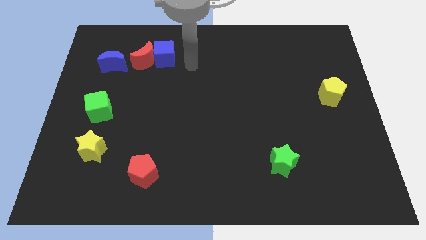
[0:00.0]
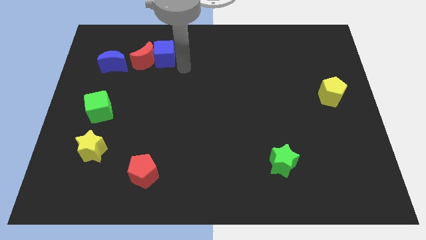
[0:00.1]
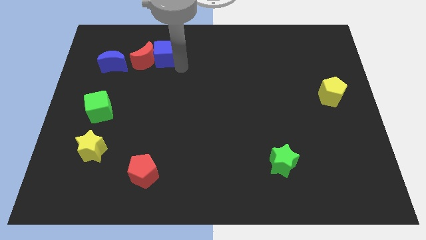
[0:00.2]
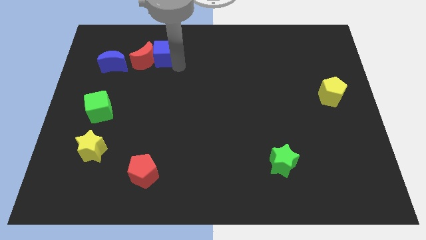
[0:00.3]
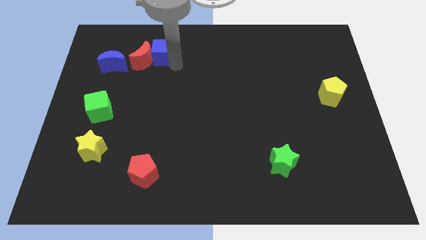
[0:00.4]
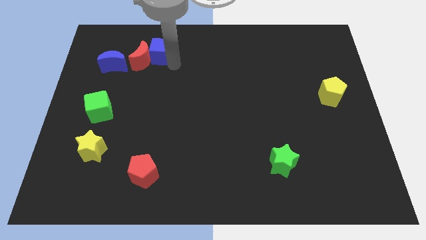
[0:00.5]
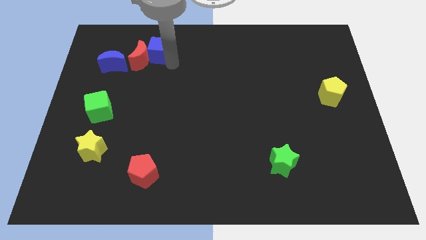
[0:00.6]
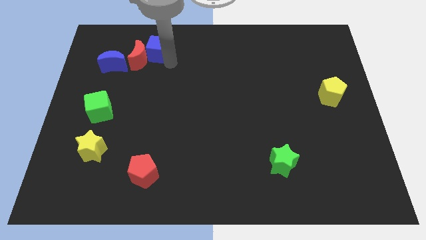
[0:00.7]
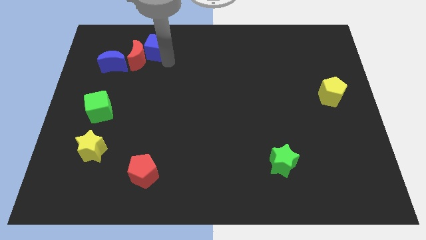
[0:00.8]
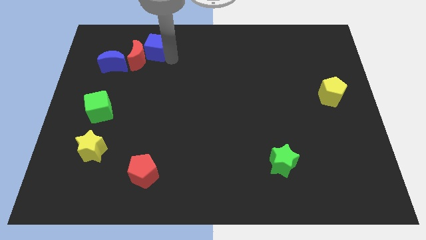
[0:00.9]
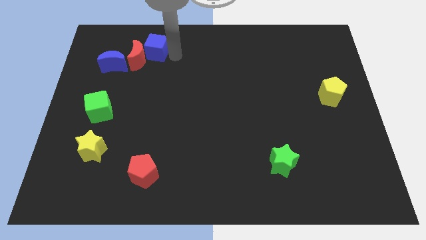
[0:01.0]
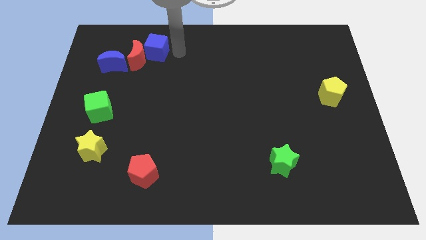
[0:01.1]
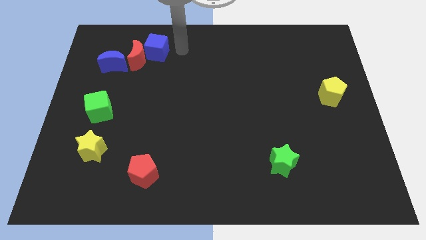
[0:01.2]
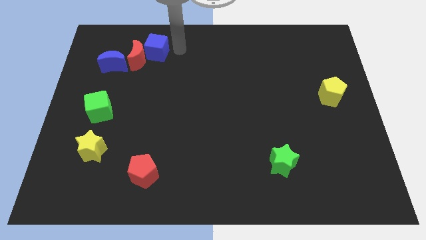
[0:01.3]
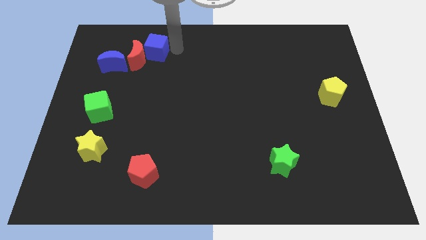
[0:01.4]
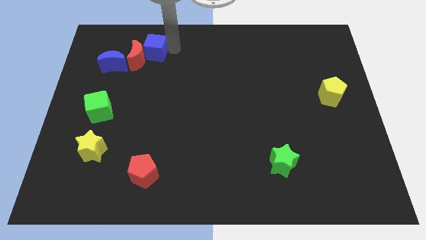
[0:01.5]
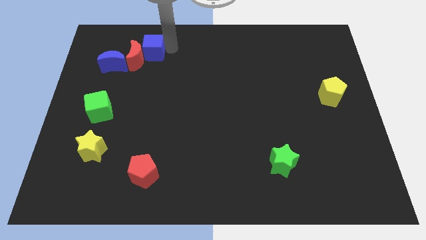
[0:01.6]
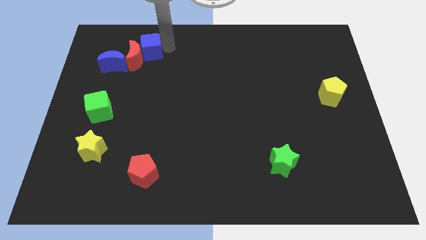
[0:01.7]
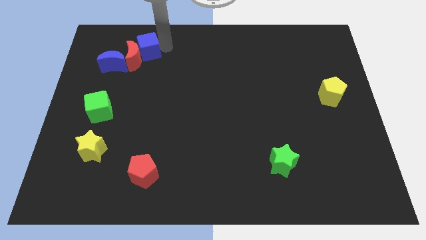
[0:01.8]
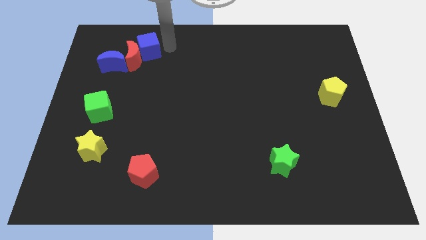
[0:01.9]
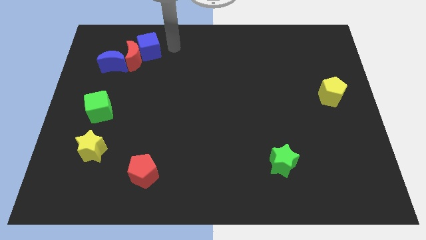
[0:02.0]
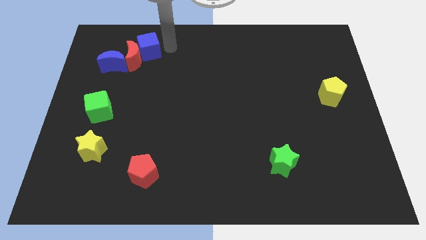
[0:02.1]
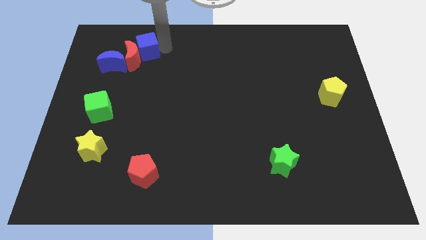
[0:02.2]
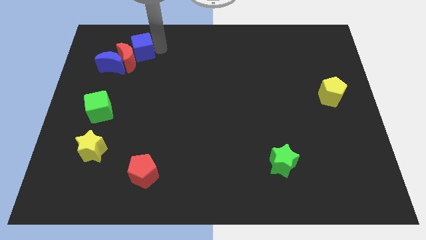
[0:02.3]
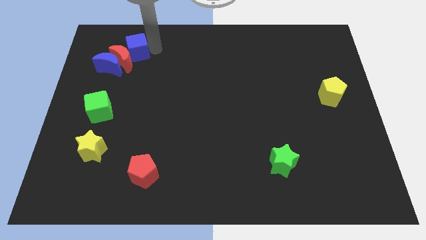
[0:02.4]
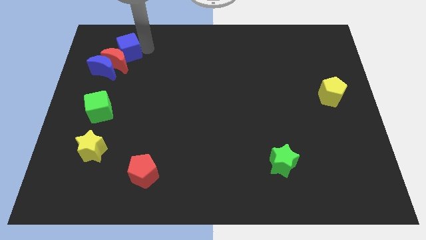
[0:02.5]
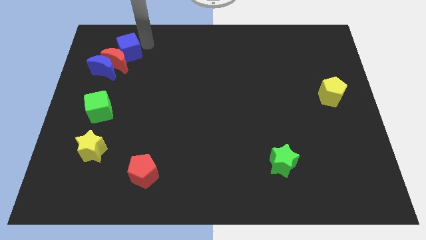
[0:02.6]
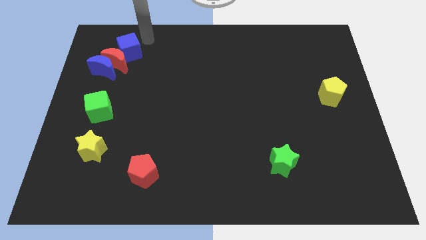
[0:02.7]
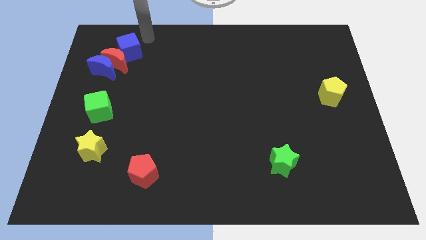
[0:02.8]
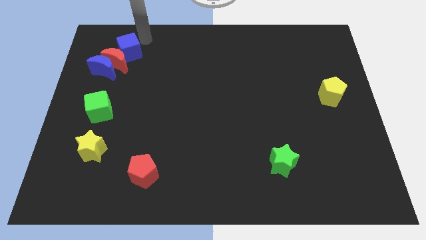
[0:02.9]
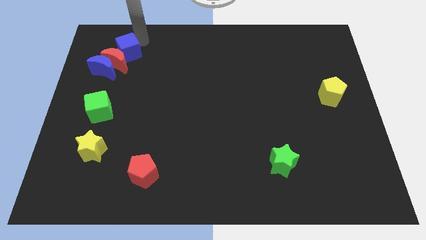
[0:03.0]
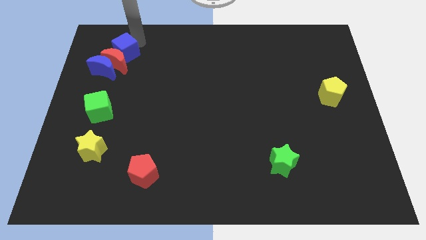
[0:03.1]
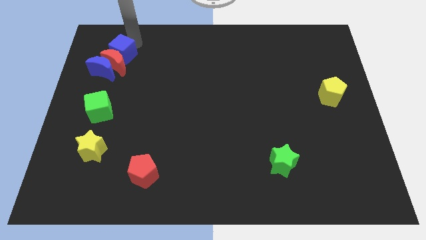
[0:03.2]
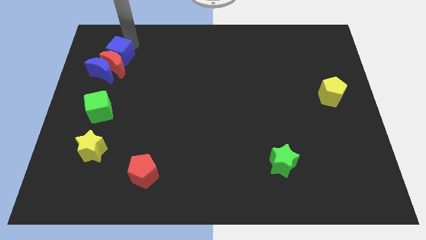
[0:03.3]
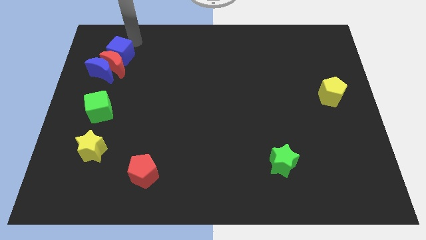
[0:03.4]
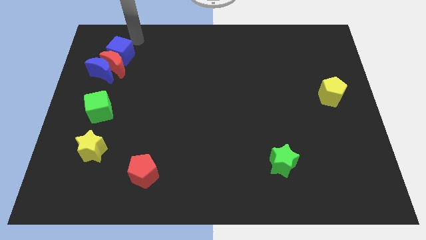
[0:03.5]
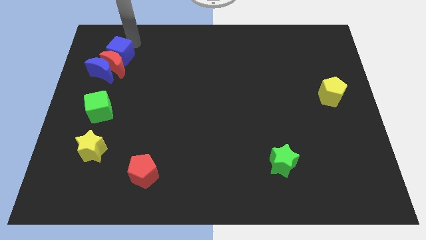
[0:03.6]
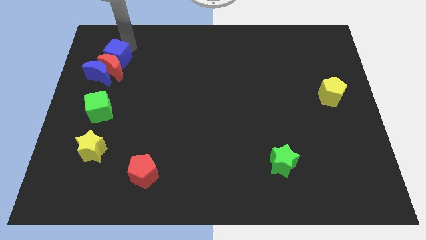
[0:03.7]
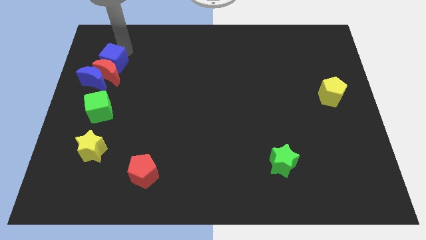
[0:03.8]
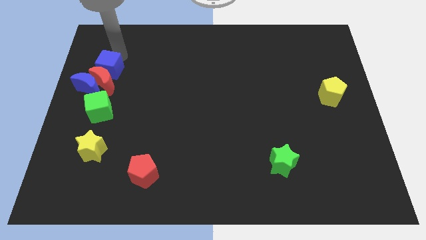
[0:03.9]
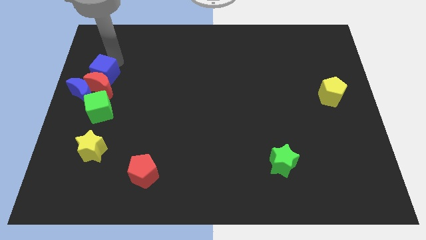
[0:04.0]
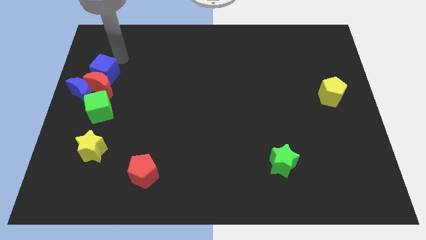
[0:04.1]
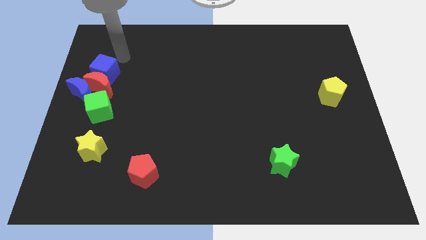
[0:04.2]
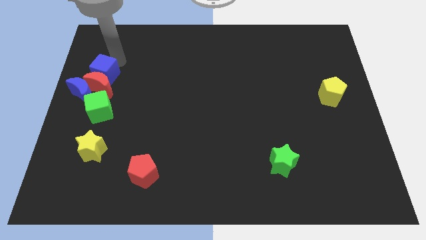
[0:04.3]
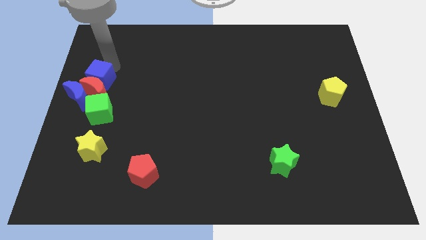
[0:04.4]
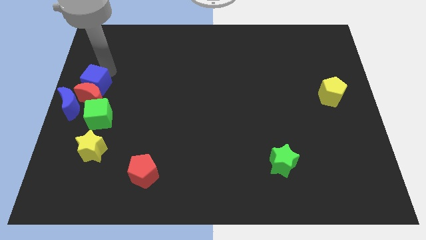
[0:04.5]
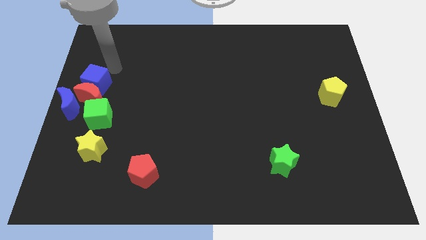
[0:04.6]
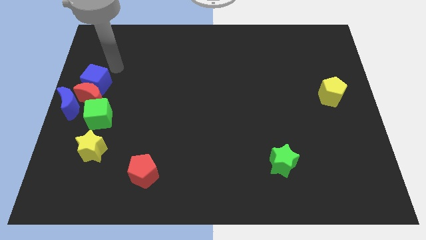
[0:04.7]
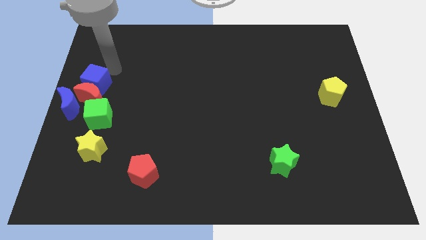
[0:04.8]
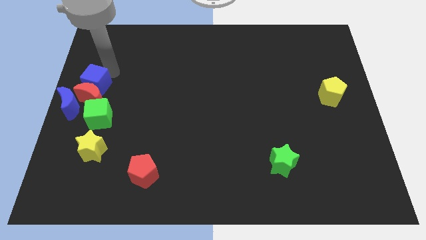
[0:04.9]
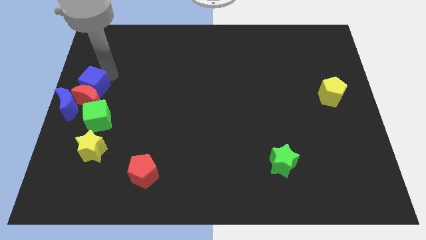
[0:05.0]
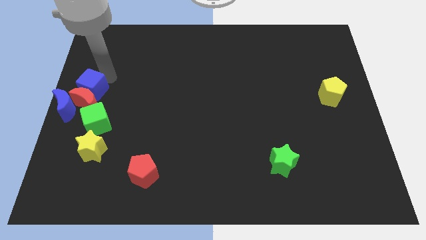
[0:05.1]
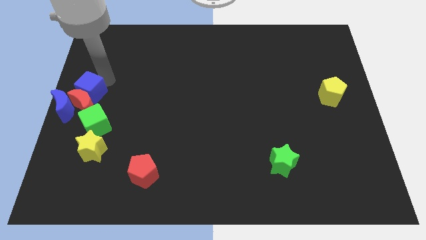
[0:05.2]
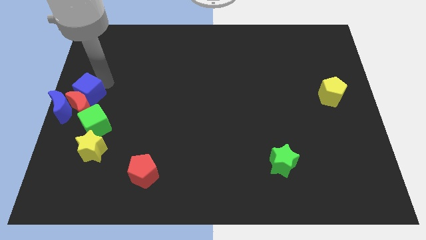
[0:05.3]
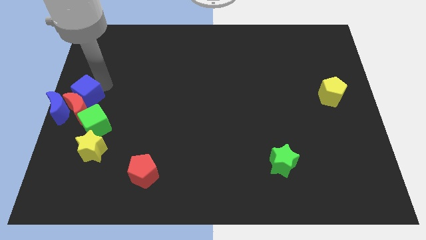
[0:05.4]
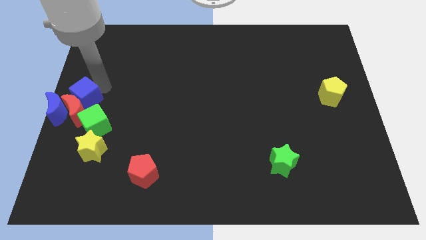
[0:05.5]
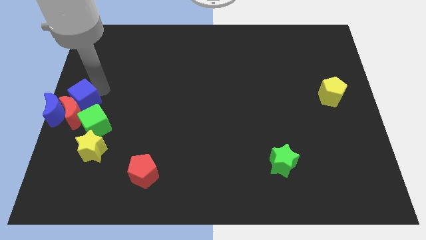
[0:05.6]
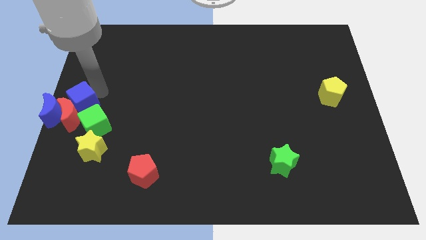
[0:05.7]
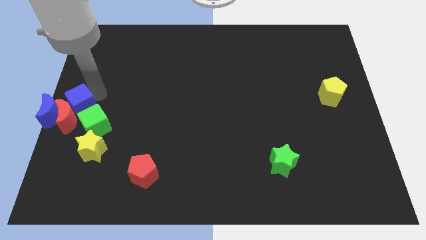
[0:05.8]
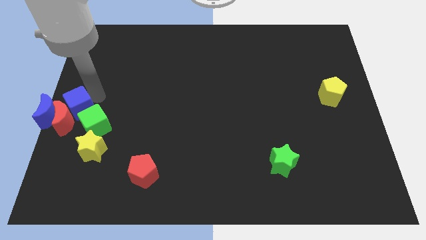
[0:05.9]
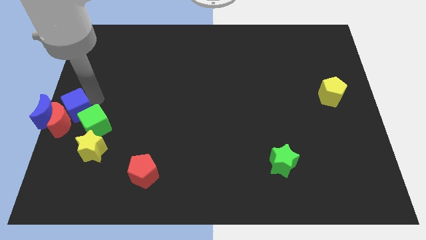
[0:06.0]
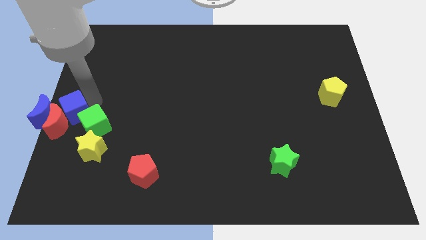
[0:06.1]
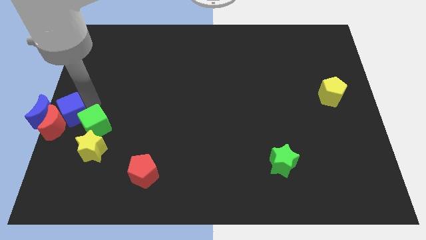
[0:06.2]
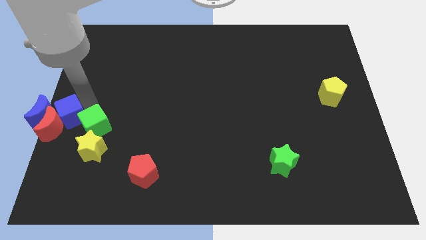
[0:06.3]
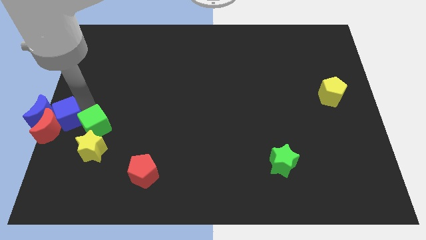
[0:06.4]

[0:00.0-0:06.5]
slide the blue cube close to the blue moon

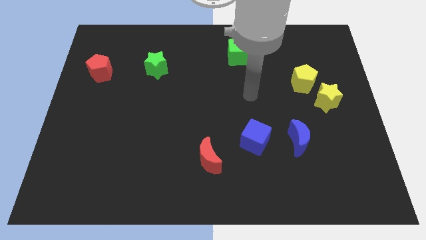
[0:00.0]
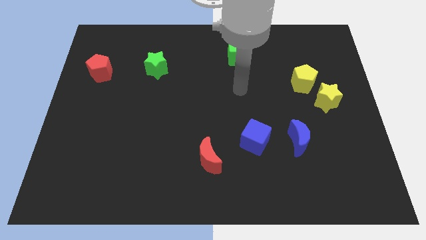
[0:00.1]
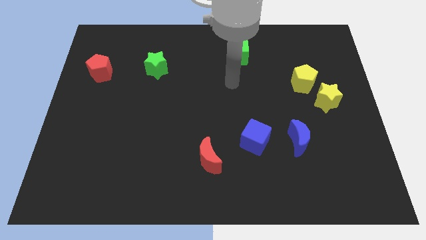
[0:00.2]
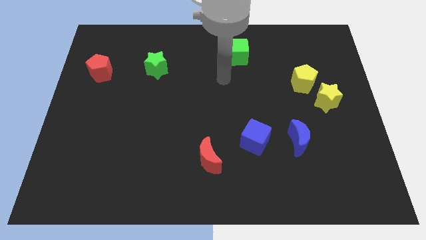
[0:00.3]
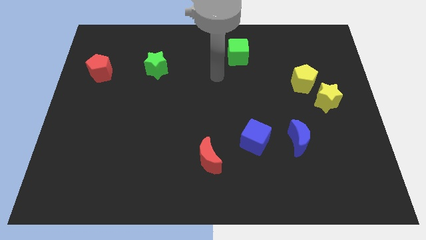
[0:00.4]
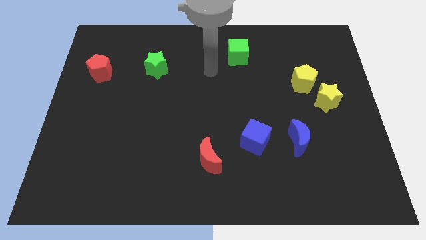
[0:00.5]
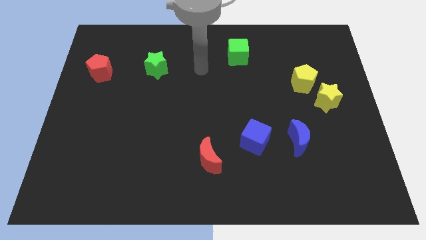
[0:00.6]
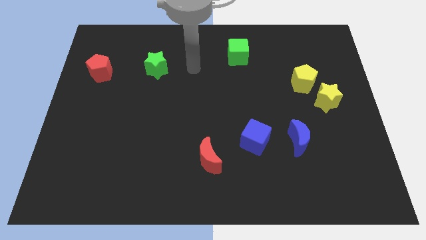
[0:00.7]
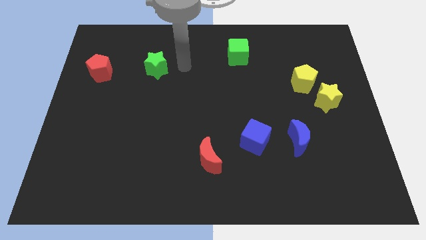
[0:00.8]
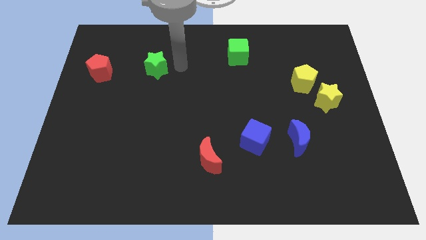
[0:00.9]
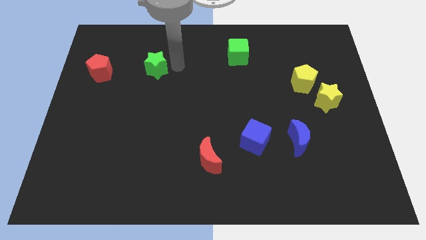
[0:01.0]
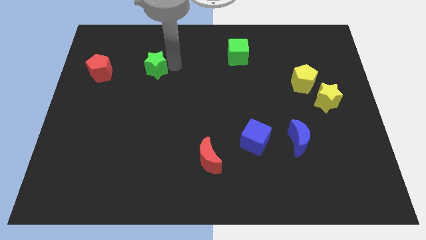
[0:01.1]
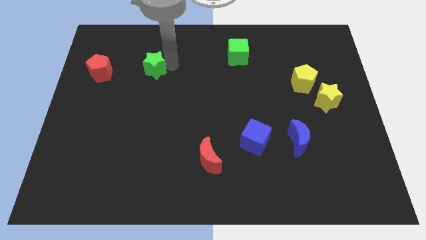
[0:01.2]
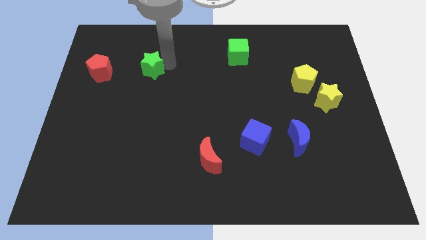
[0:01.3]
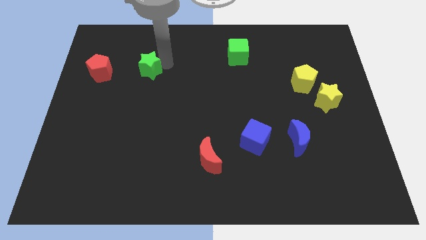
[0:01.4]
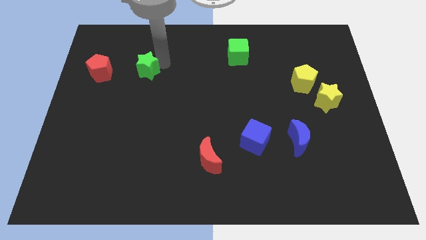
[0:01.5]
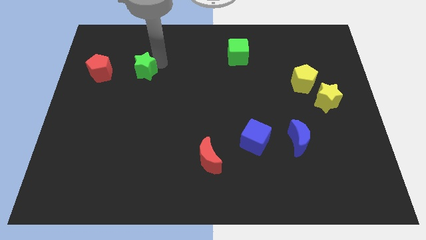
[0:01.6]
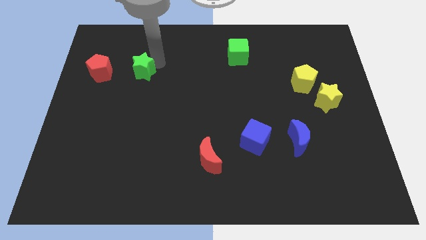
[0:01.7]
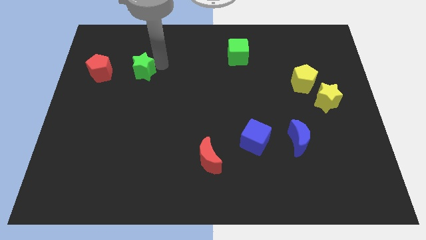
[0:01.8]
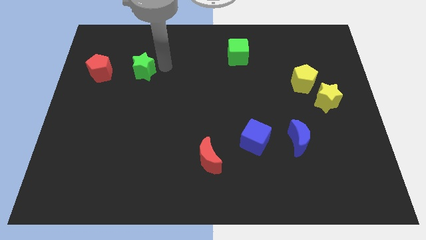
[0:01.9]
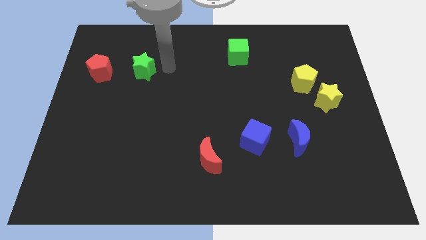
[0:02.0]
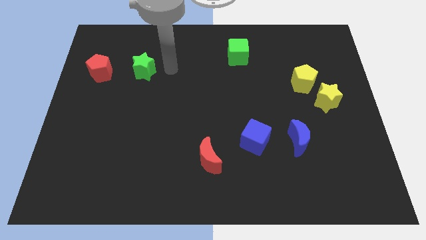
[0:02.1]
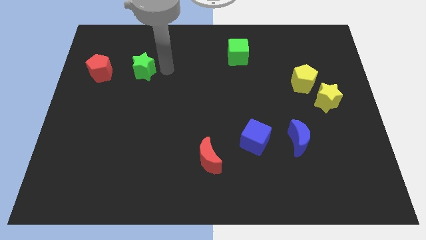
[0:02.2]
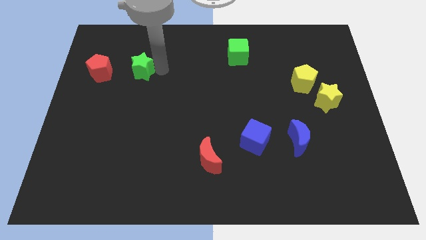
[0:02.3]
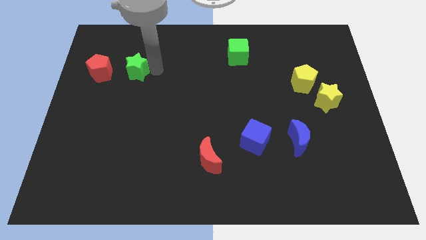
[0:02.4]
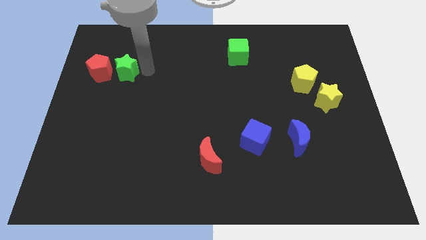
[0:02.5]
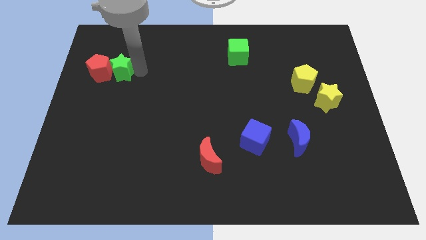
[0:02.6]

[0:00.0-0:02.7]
move the green star to the red pentagon
